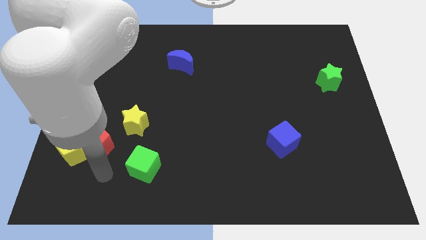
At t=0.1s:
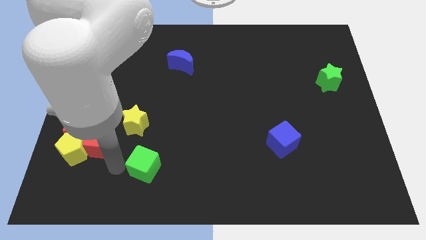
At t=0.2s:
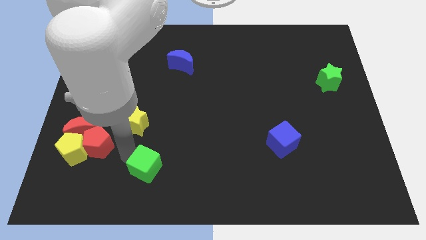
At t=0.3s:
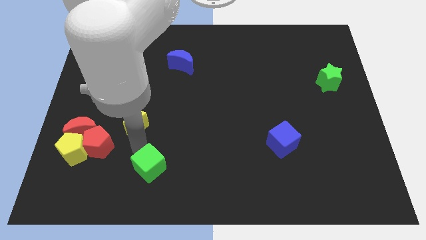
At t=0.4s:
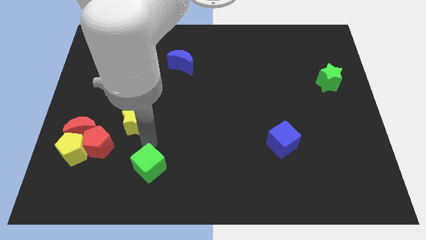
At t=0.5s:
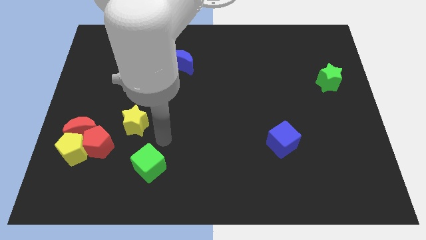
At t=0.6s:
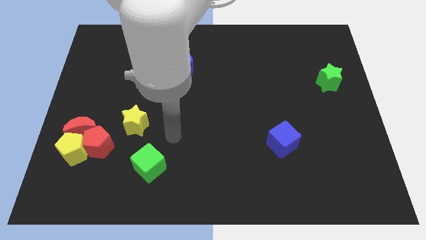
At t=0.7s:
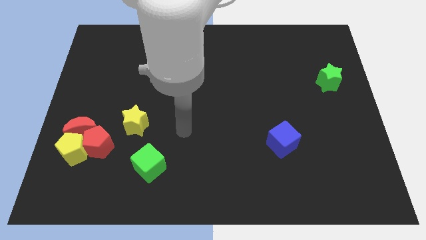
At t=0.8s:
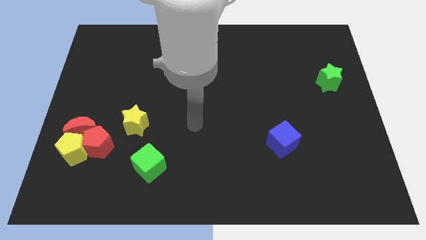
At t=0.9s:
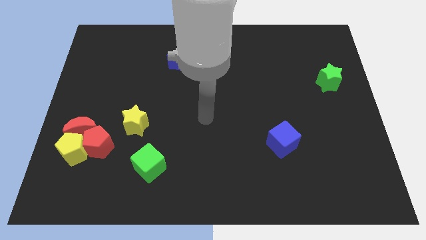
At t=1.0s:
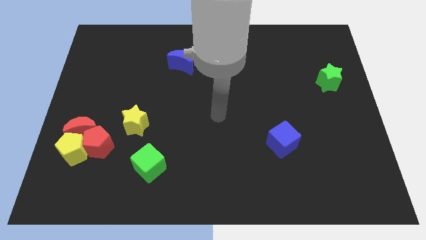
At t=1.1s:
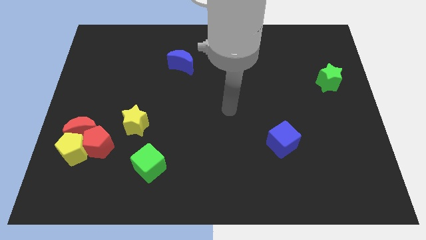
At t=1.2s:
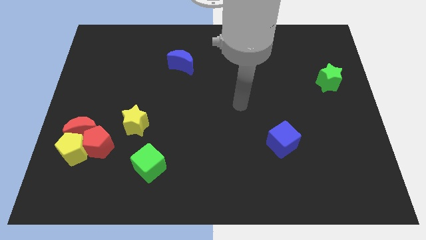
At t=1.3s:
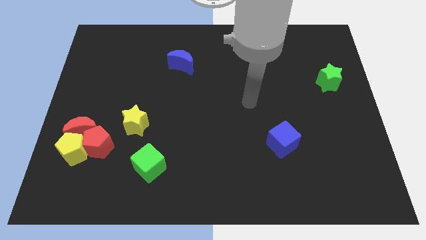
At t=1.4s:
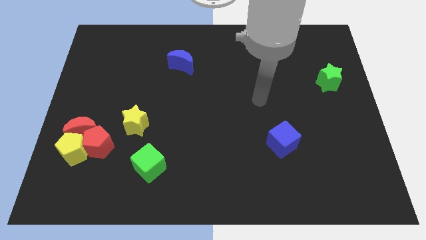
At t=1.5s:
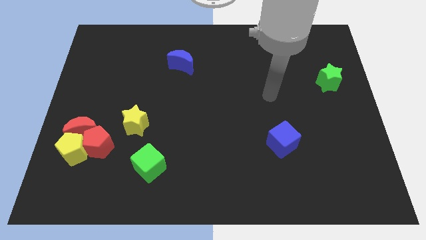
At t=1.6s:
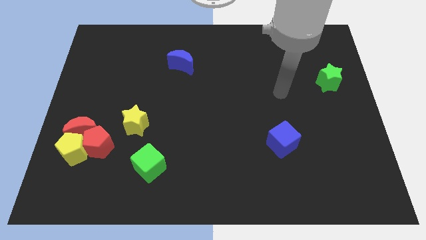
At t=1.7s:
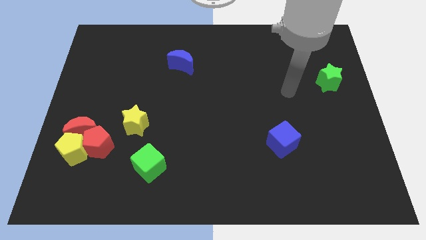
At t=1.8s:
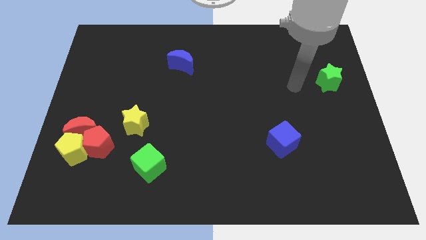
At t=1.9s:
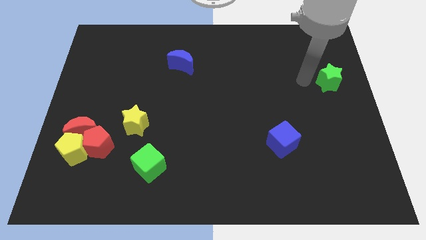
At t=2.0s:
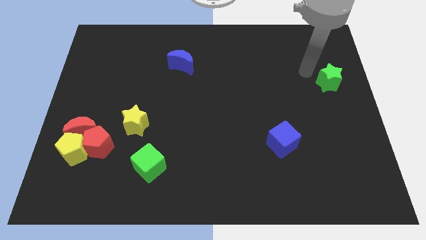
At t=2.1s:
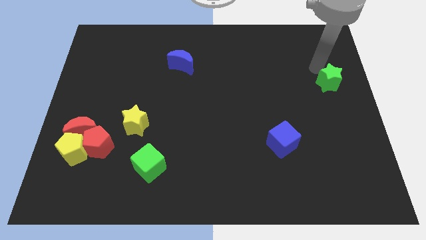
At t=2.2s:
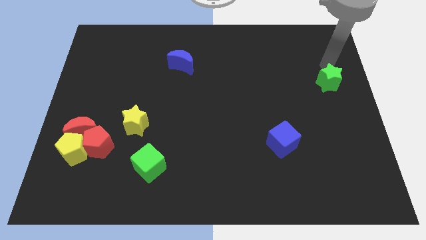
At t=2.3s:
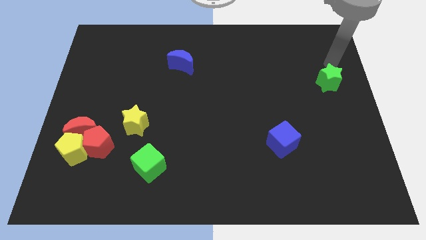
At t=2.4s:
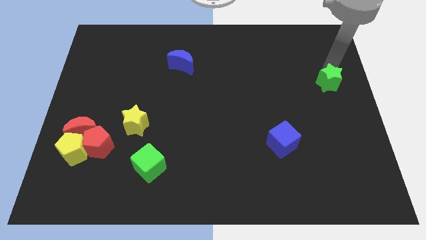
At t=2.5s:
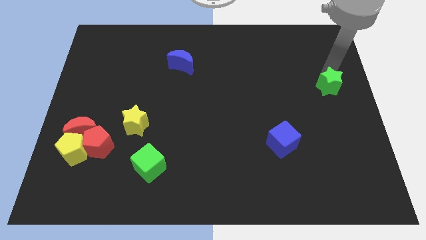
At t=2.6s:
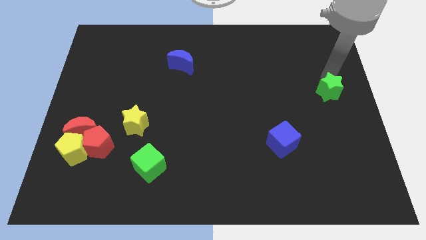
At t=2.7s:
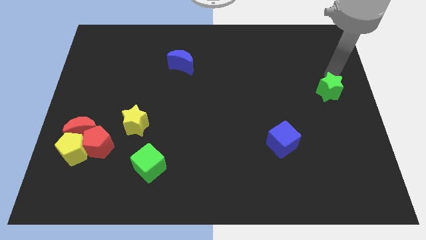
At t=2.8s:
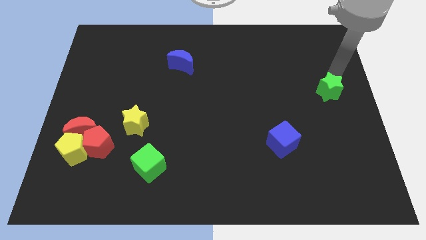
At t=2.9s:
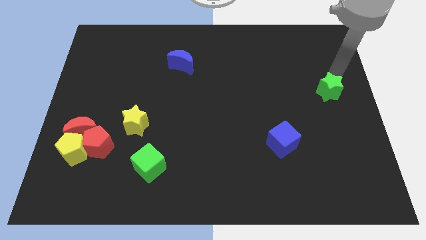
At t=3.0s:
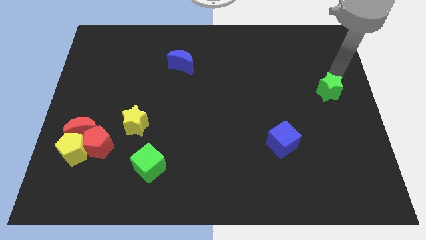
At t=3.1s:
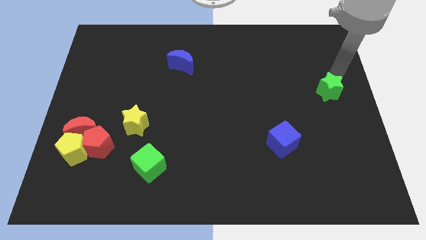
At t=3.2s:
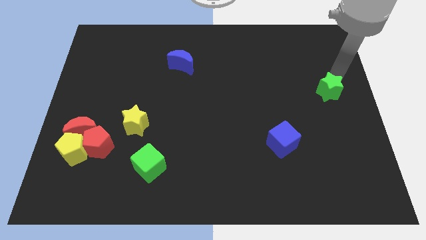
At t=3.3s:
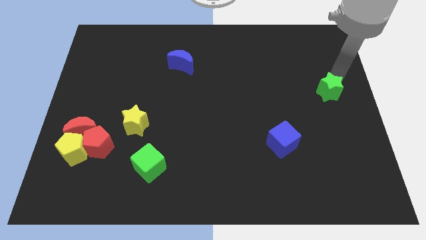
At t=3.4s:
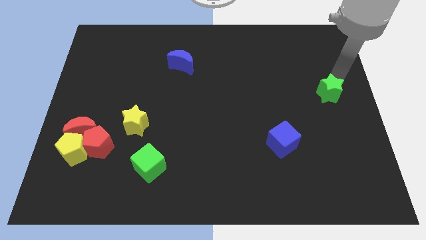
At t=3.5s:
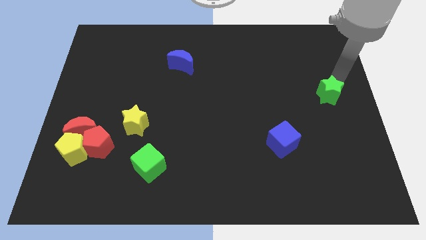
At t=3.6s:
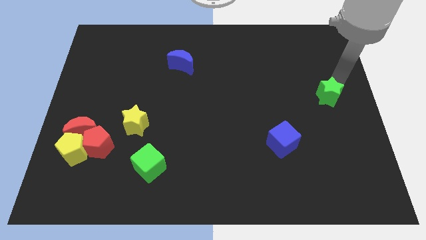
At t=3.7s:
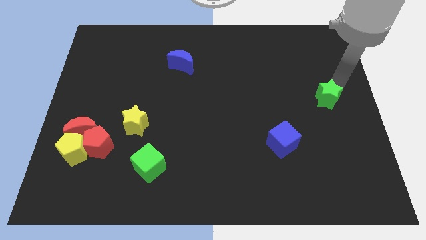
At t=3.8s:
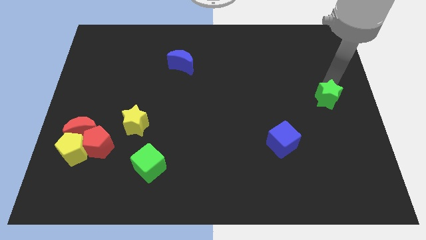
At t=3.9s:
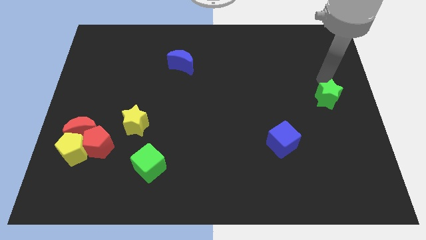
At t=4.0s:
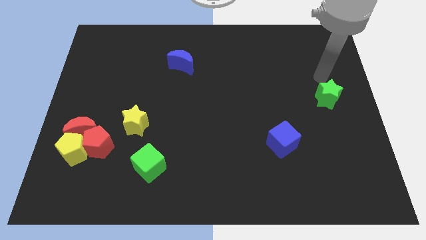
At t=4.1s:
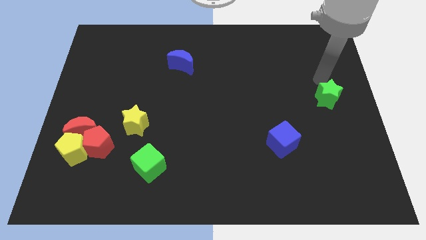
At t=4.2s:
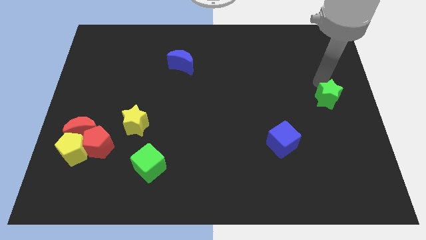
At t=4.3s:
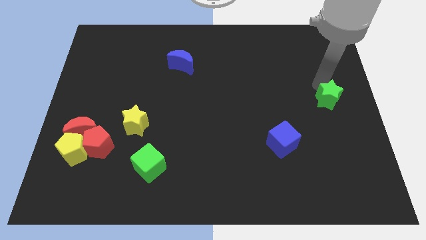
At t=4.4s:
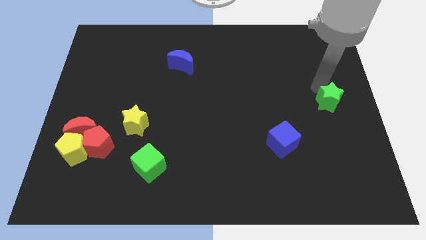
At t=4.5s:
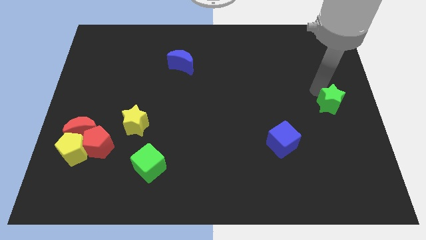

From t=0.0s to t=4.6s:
push the green star downwards somewhat

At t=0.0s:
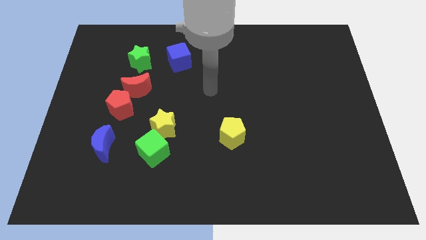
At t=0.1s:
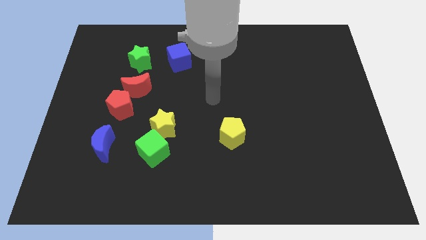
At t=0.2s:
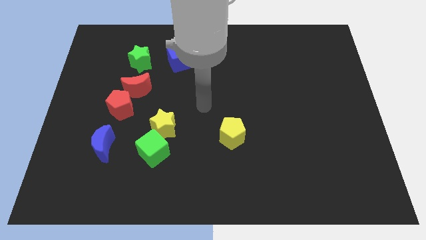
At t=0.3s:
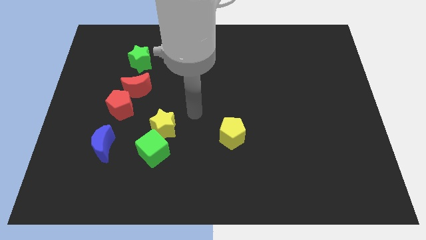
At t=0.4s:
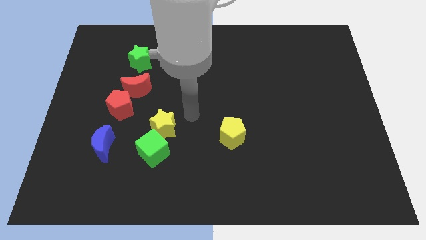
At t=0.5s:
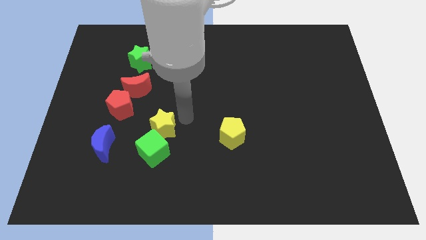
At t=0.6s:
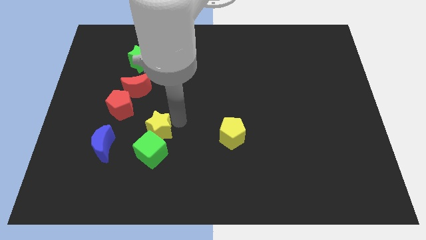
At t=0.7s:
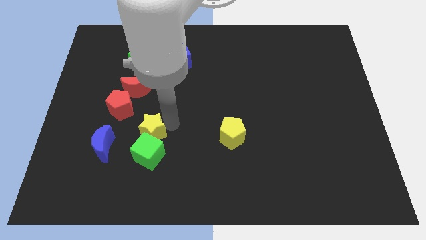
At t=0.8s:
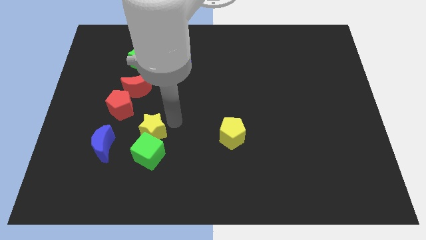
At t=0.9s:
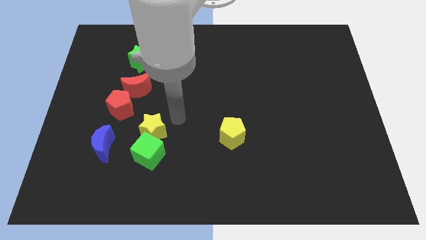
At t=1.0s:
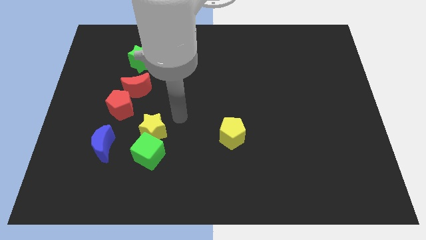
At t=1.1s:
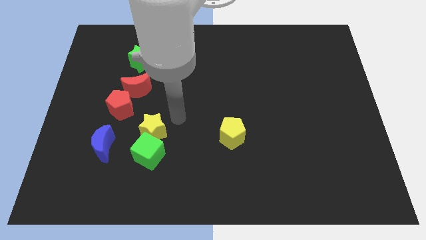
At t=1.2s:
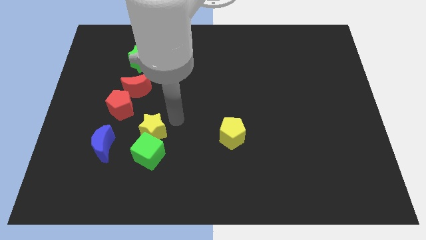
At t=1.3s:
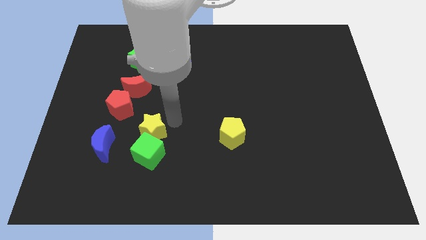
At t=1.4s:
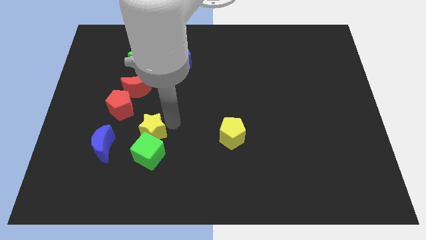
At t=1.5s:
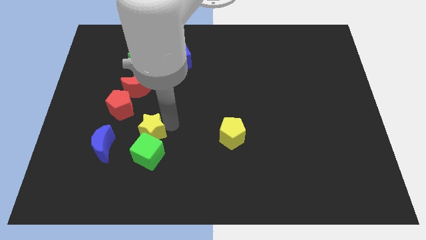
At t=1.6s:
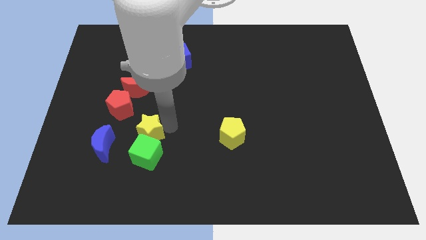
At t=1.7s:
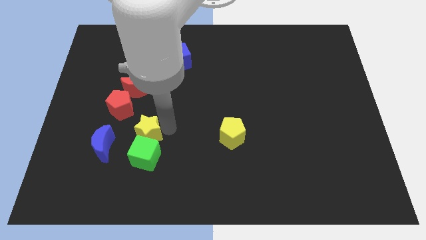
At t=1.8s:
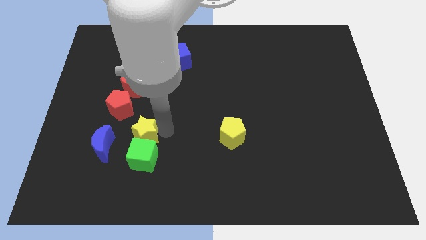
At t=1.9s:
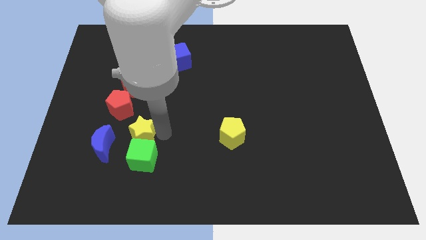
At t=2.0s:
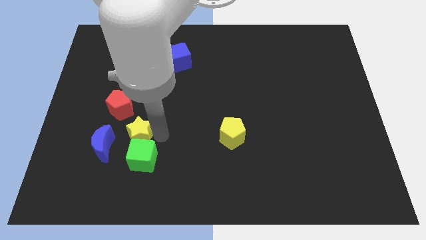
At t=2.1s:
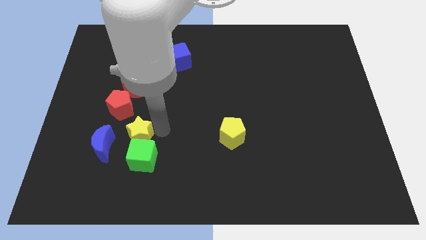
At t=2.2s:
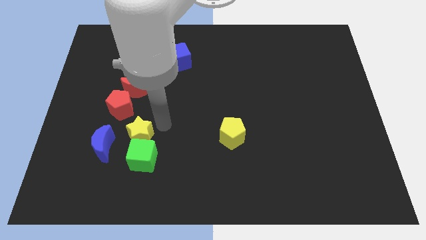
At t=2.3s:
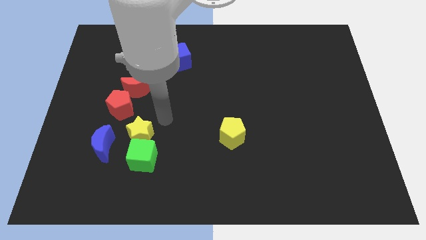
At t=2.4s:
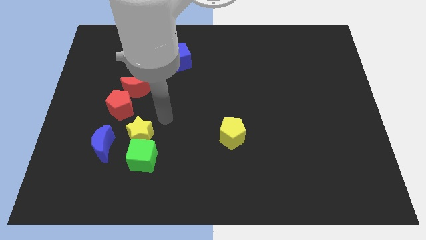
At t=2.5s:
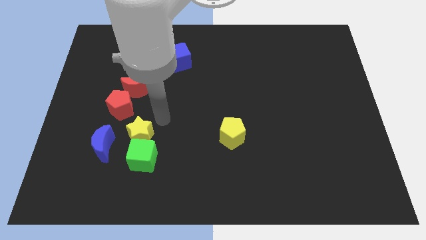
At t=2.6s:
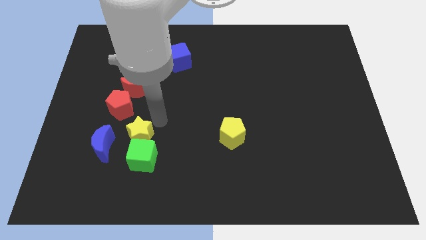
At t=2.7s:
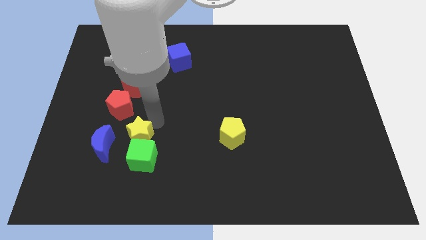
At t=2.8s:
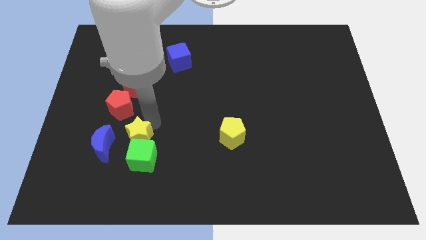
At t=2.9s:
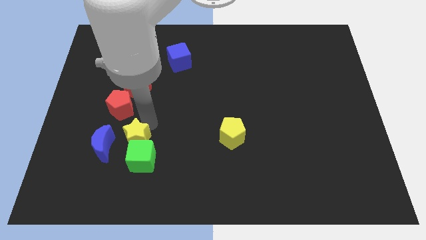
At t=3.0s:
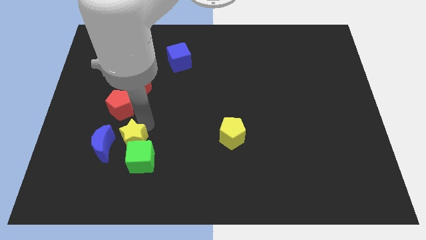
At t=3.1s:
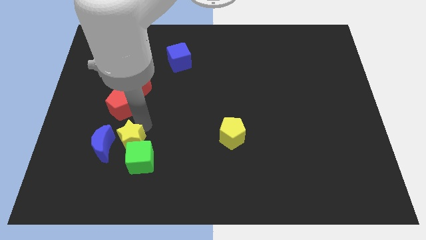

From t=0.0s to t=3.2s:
slide the yellow star a little bit downwards and to the left
